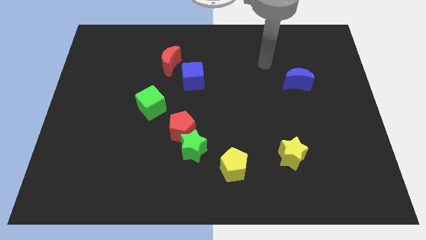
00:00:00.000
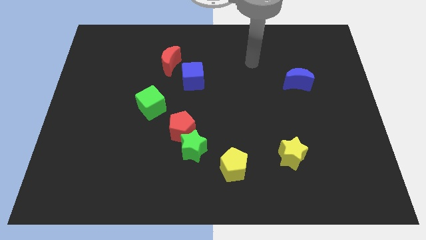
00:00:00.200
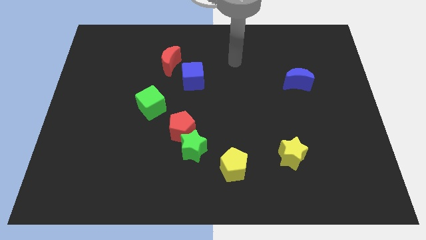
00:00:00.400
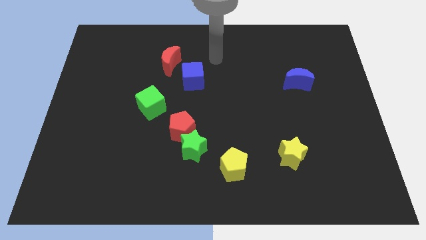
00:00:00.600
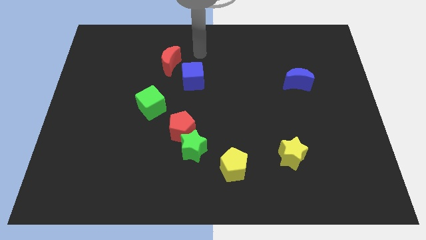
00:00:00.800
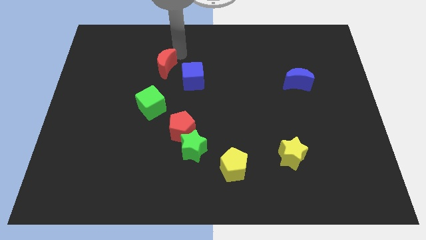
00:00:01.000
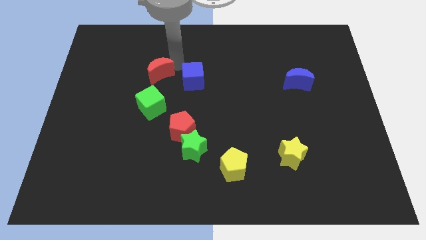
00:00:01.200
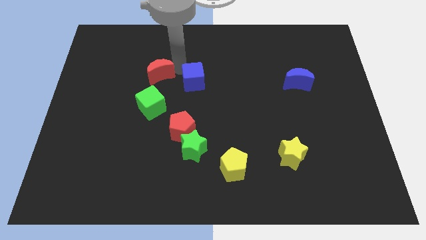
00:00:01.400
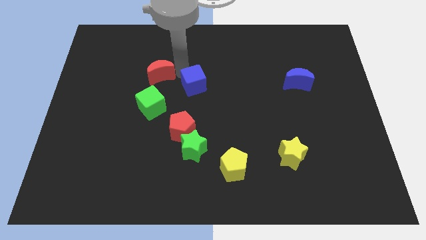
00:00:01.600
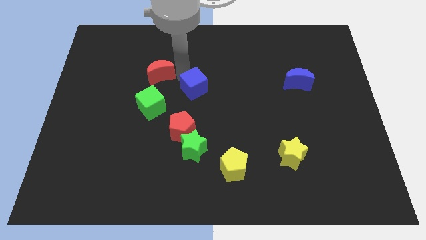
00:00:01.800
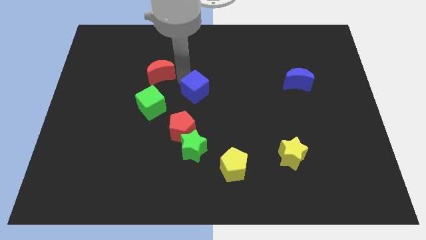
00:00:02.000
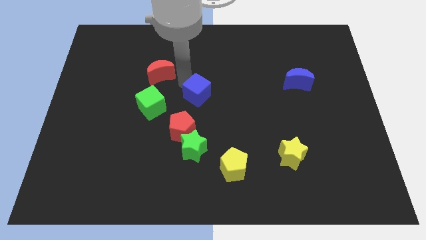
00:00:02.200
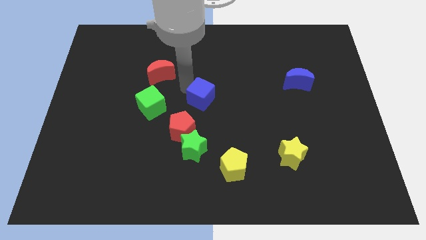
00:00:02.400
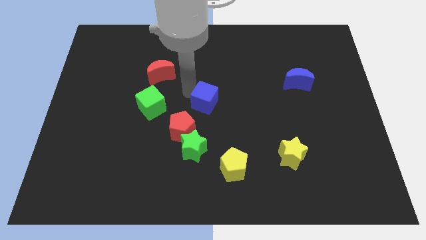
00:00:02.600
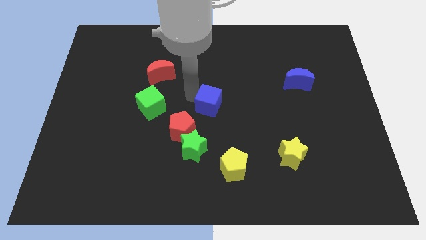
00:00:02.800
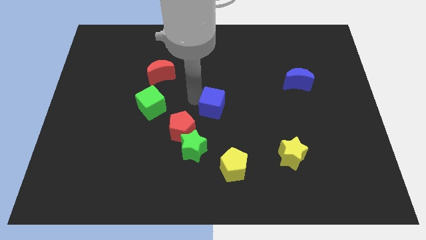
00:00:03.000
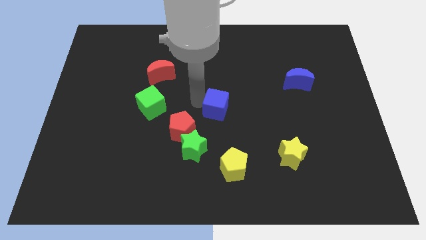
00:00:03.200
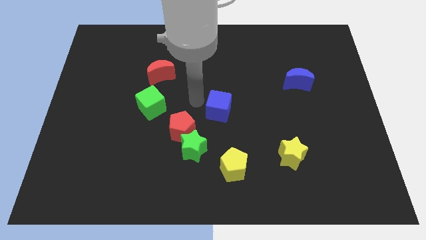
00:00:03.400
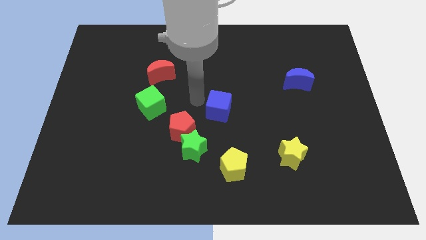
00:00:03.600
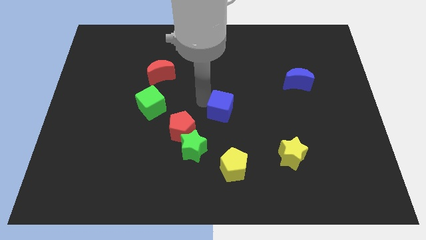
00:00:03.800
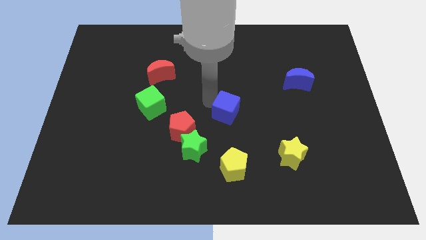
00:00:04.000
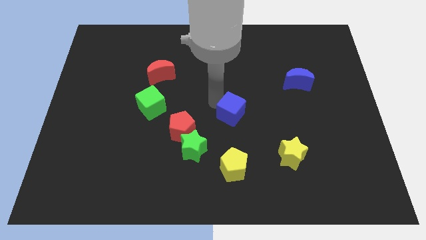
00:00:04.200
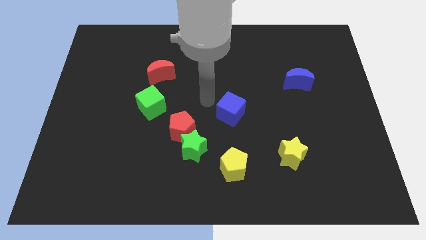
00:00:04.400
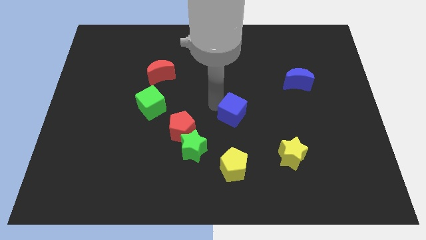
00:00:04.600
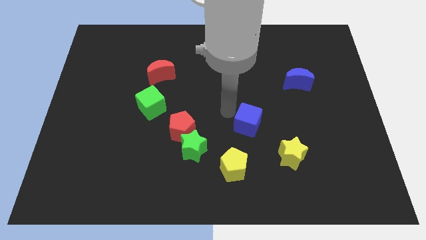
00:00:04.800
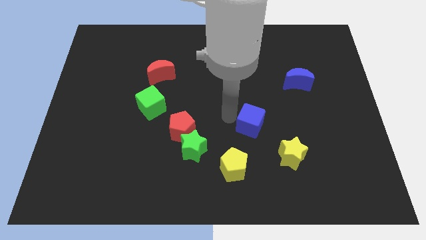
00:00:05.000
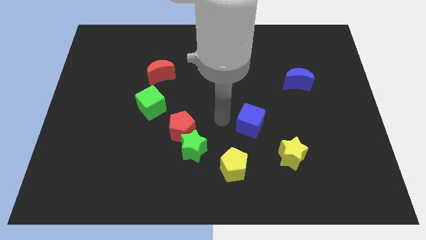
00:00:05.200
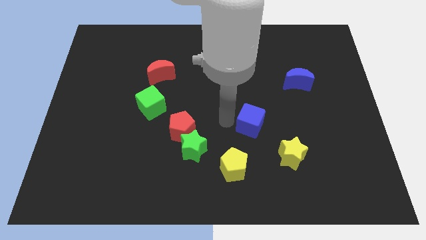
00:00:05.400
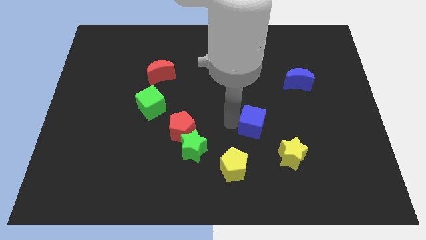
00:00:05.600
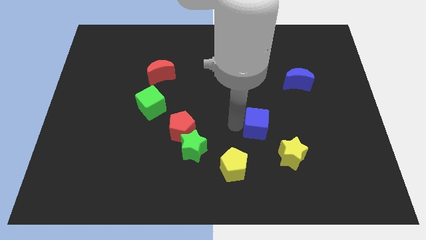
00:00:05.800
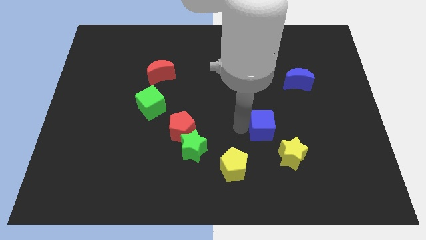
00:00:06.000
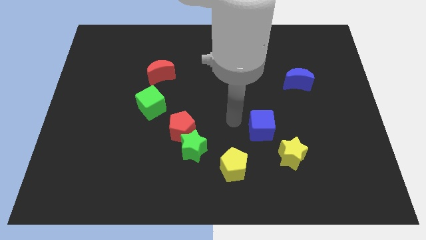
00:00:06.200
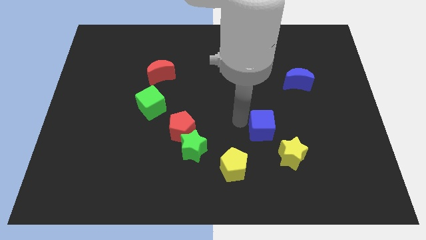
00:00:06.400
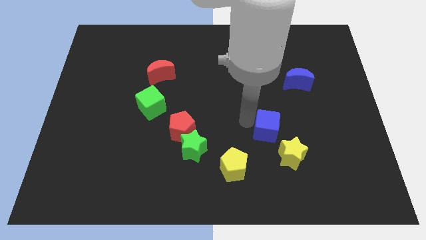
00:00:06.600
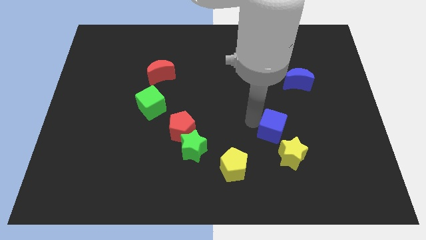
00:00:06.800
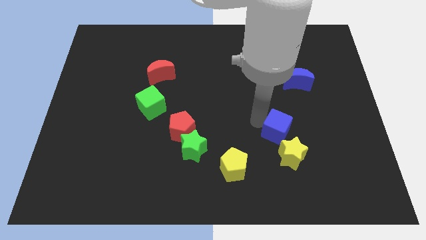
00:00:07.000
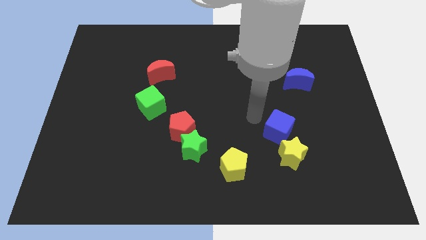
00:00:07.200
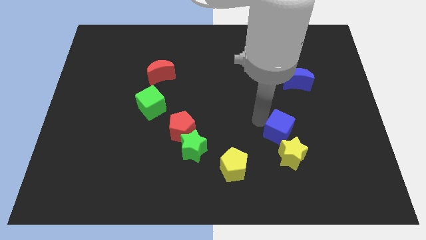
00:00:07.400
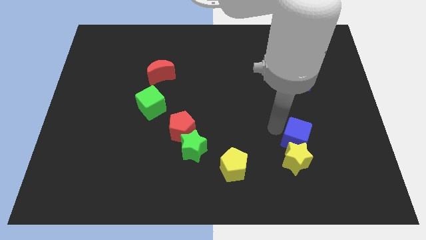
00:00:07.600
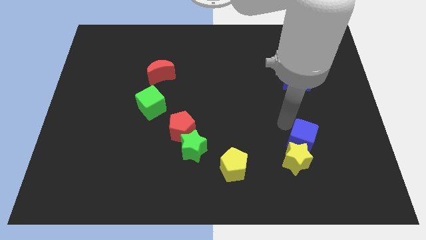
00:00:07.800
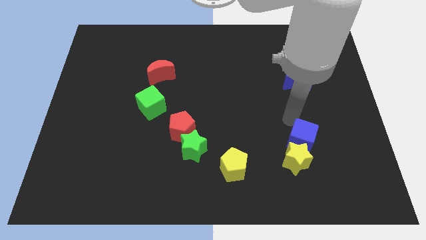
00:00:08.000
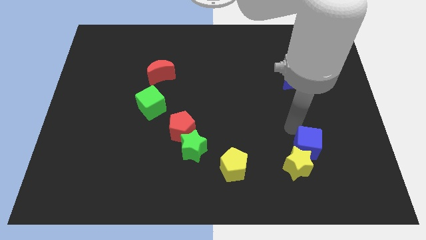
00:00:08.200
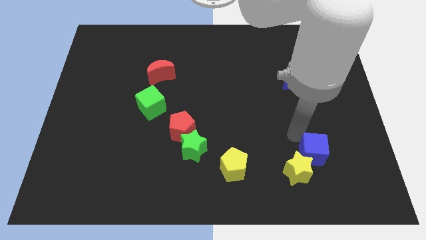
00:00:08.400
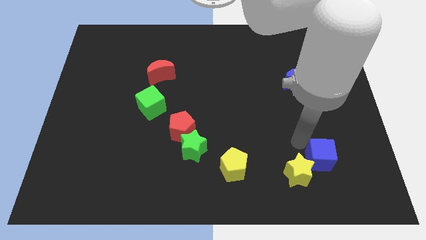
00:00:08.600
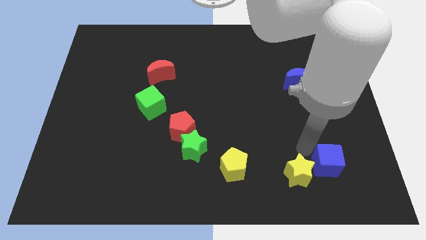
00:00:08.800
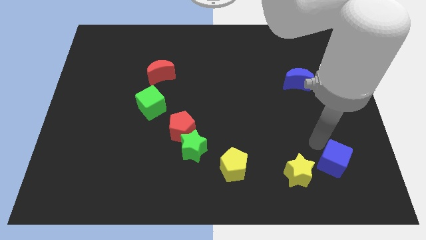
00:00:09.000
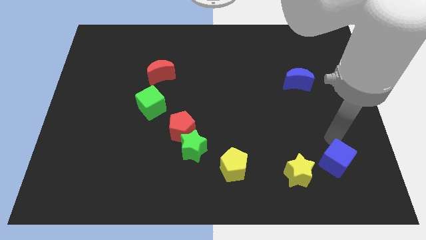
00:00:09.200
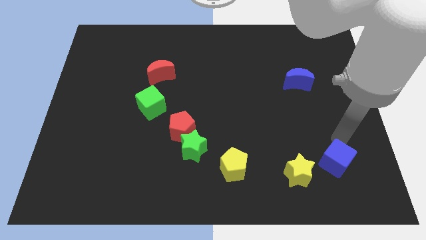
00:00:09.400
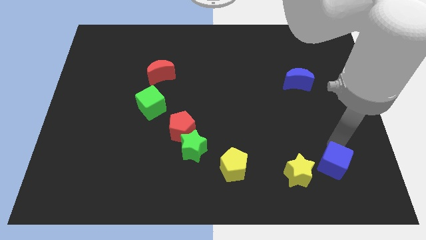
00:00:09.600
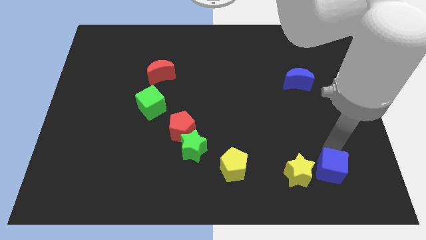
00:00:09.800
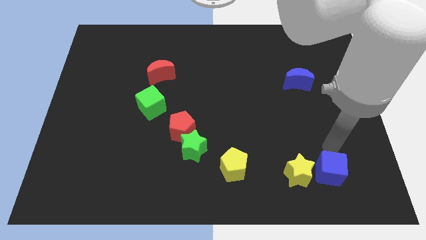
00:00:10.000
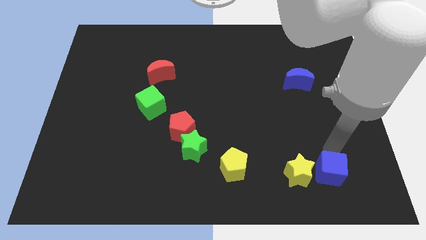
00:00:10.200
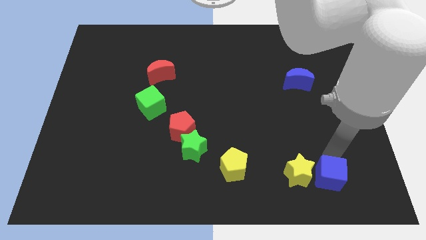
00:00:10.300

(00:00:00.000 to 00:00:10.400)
slide the blue cube to the bottom right side of the yellow star

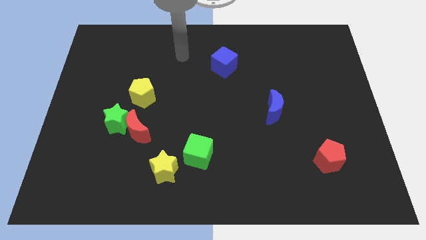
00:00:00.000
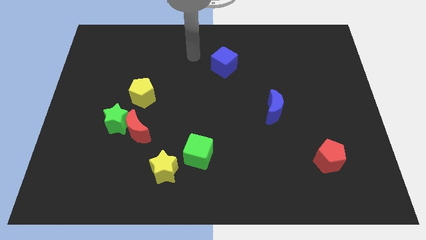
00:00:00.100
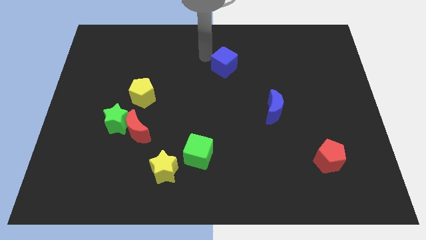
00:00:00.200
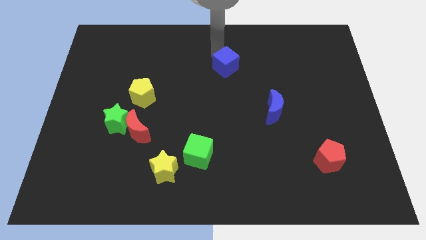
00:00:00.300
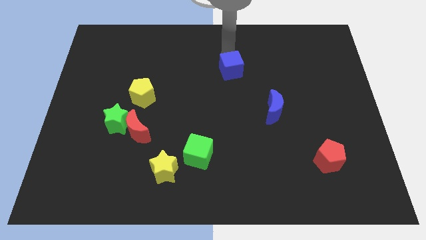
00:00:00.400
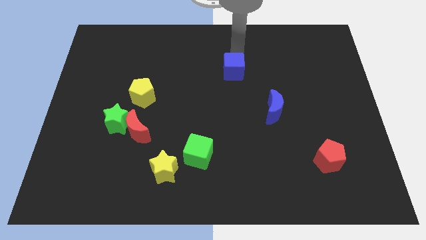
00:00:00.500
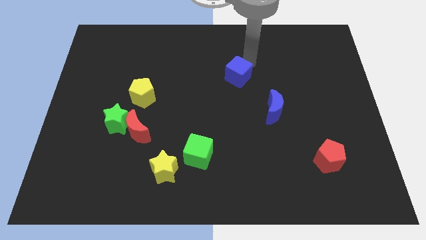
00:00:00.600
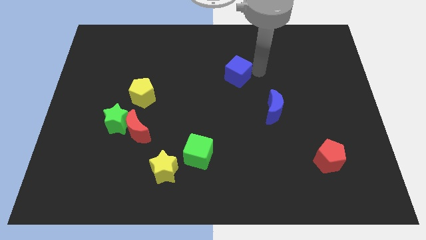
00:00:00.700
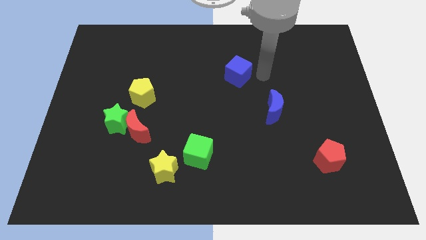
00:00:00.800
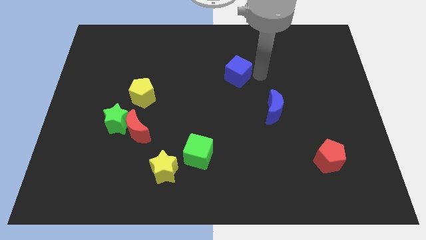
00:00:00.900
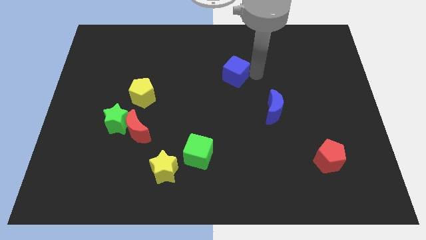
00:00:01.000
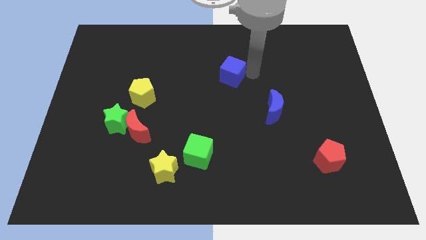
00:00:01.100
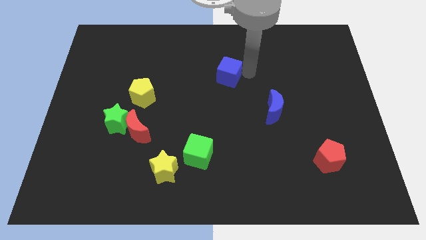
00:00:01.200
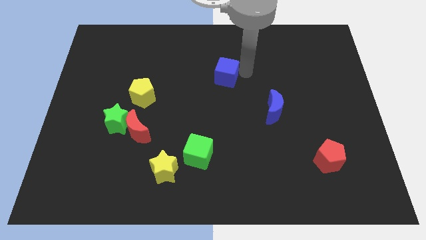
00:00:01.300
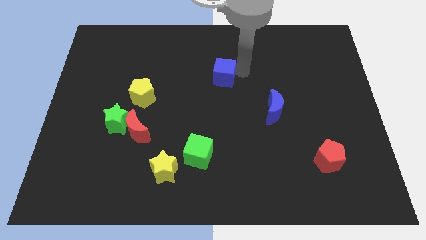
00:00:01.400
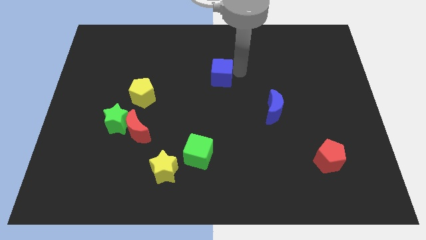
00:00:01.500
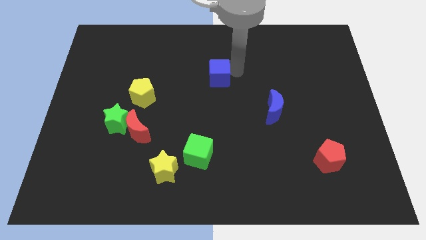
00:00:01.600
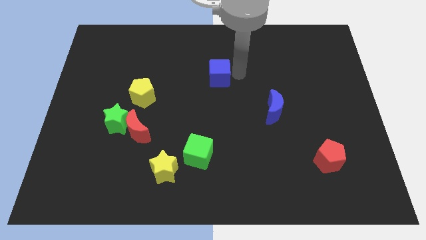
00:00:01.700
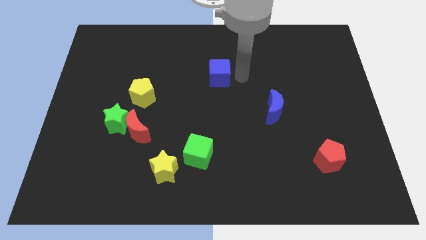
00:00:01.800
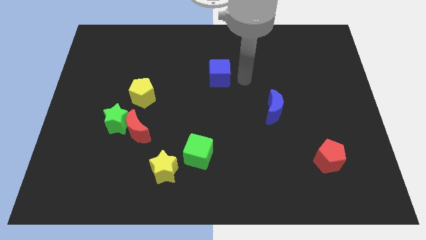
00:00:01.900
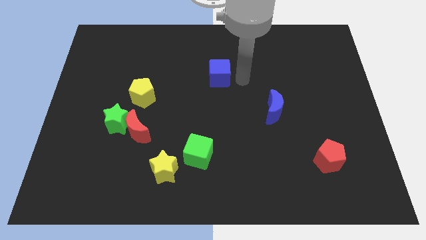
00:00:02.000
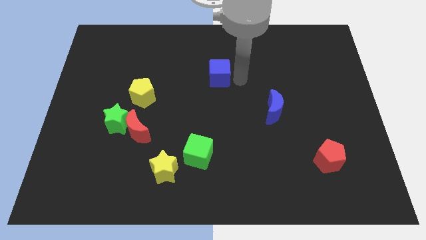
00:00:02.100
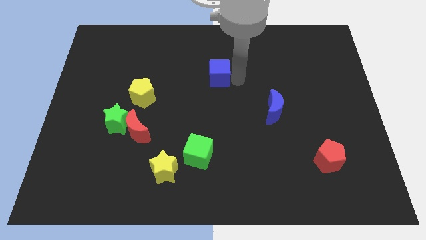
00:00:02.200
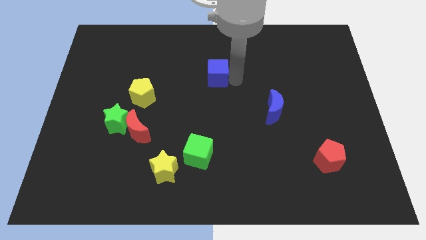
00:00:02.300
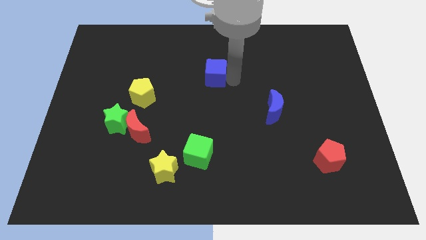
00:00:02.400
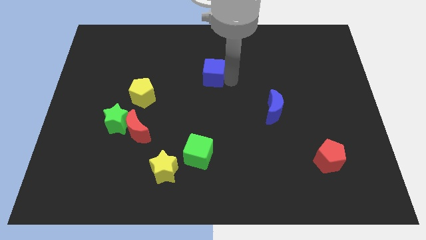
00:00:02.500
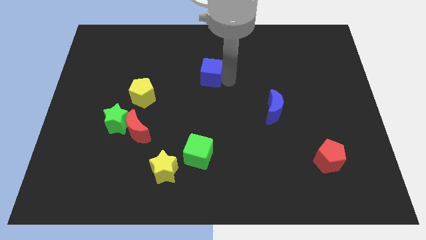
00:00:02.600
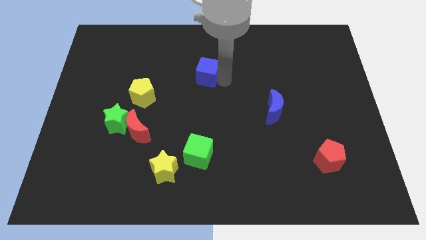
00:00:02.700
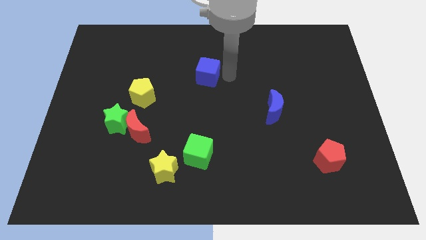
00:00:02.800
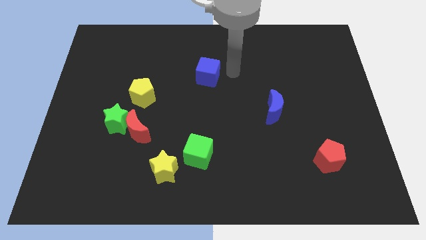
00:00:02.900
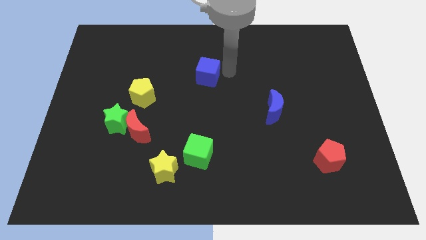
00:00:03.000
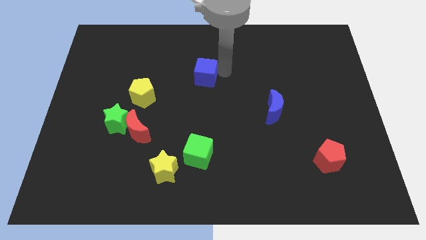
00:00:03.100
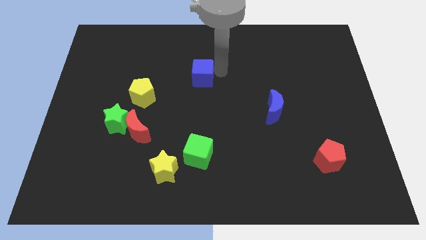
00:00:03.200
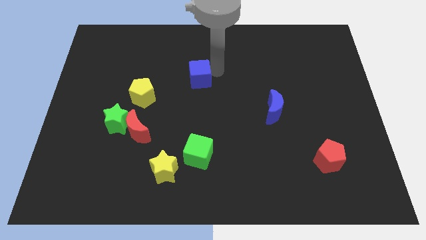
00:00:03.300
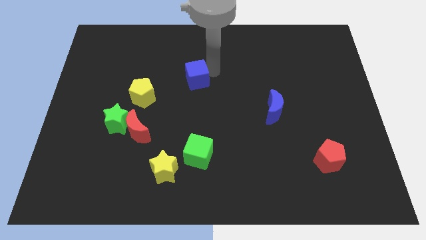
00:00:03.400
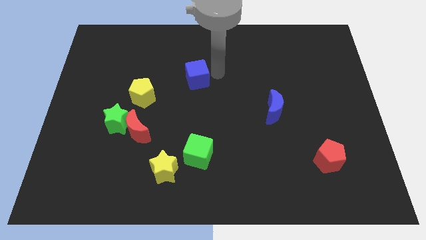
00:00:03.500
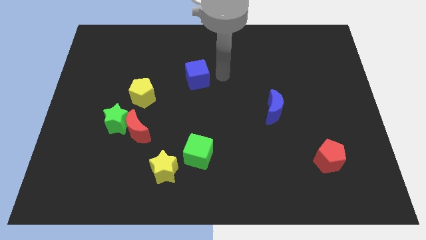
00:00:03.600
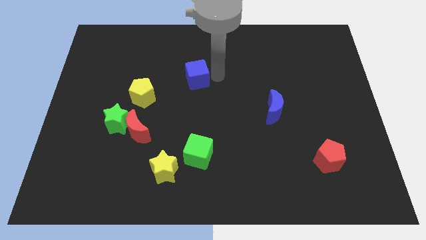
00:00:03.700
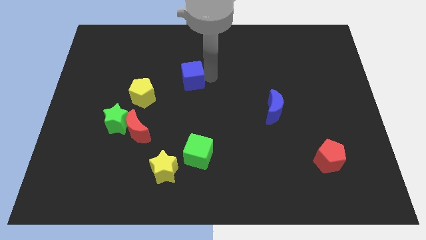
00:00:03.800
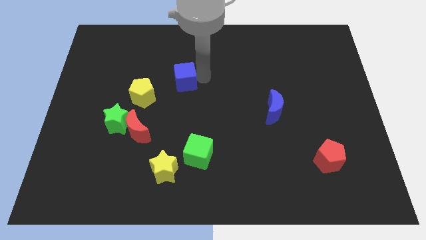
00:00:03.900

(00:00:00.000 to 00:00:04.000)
put the blue cube diagonally up and to the right of the yellow pentagon
